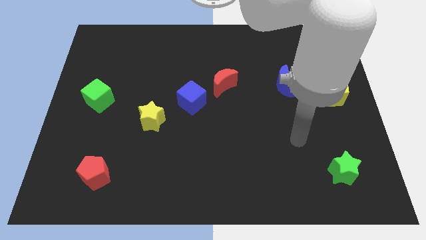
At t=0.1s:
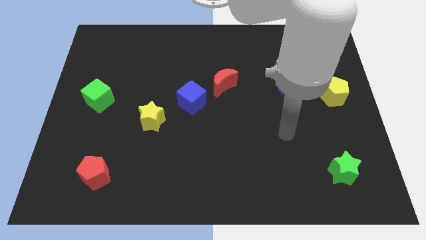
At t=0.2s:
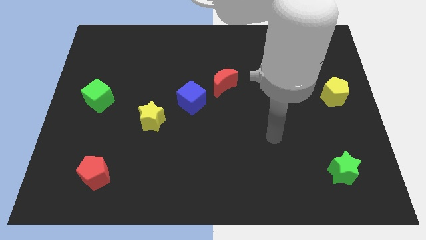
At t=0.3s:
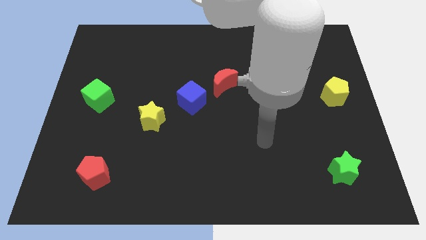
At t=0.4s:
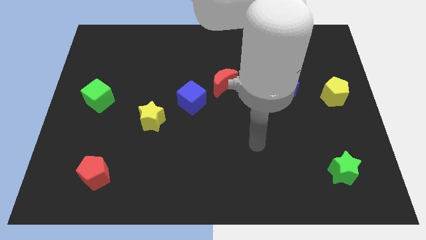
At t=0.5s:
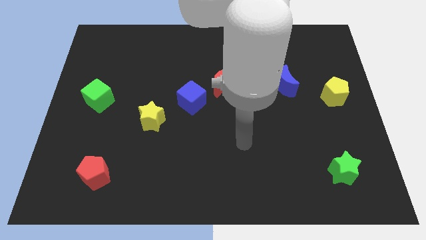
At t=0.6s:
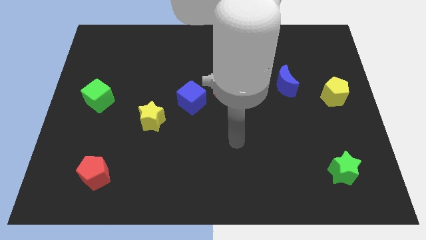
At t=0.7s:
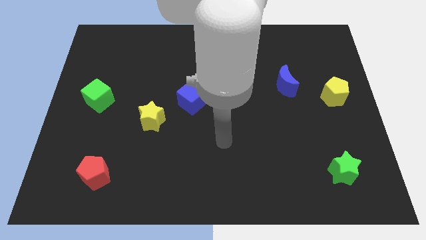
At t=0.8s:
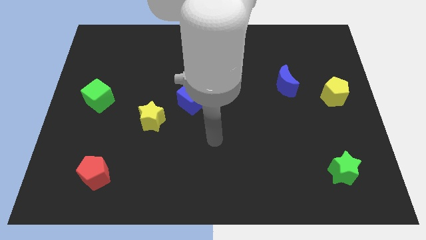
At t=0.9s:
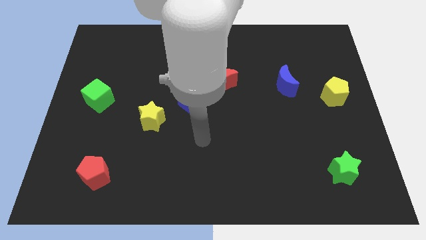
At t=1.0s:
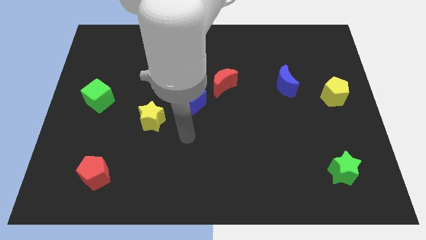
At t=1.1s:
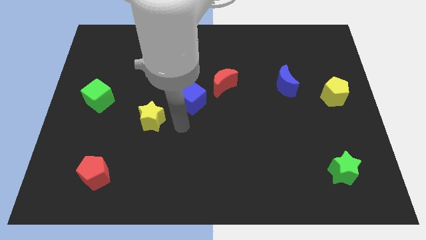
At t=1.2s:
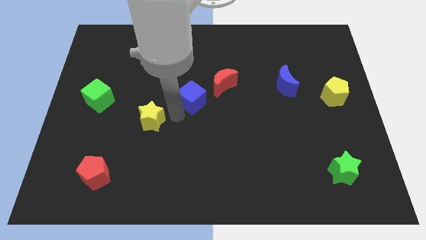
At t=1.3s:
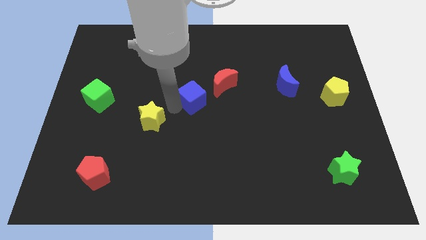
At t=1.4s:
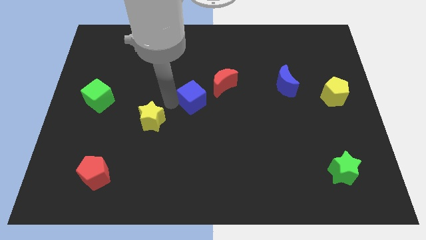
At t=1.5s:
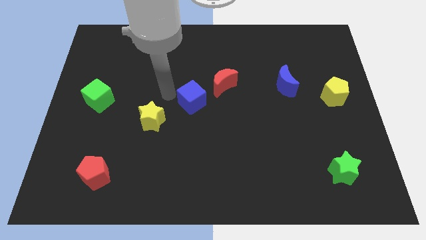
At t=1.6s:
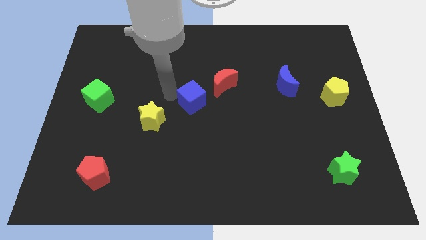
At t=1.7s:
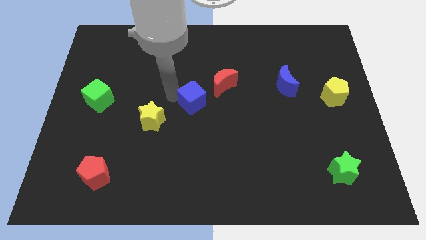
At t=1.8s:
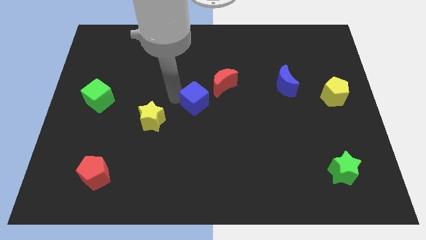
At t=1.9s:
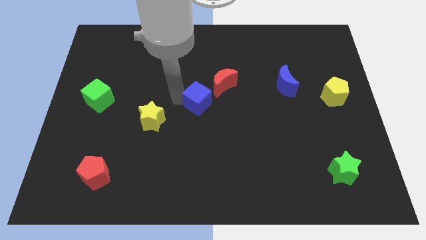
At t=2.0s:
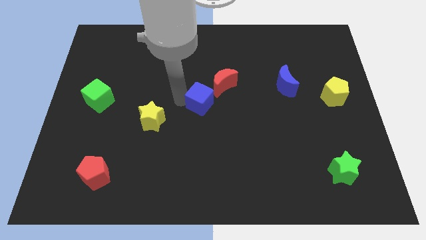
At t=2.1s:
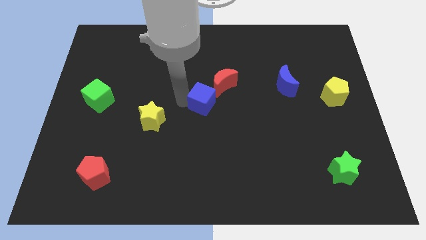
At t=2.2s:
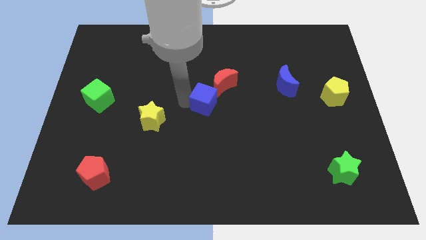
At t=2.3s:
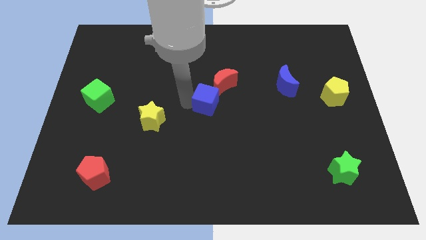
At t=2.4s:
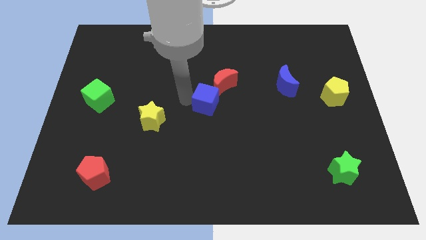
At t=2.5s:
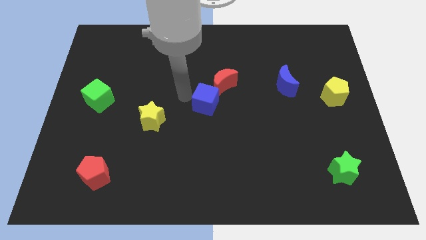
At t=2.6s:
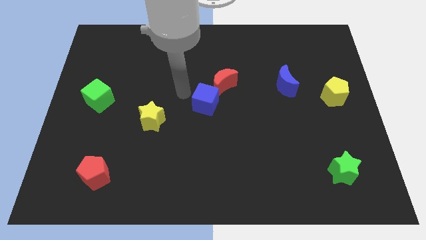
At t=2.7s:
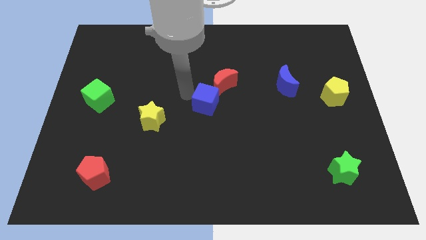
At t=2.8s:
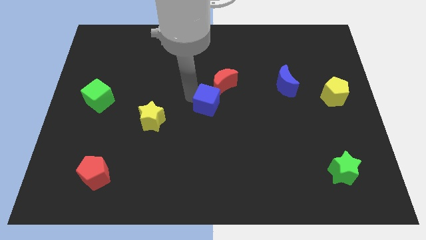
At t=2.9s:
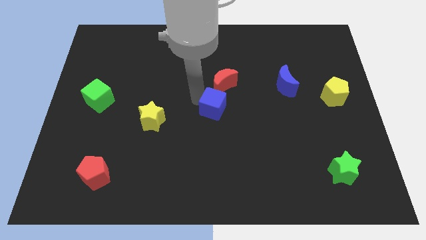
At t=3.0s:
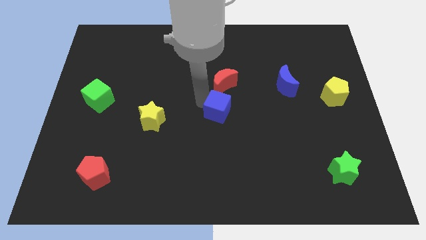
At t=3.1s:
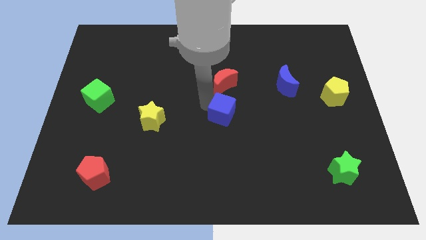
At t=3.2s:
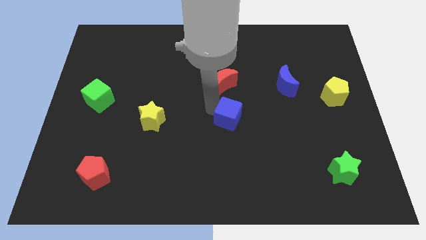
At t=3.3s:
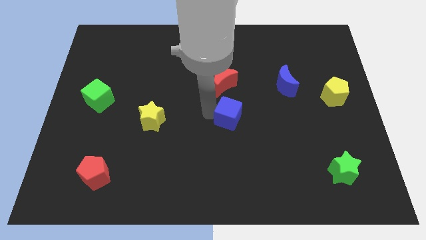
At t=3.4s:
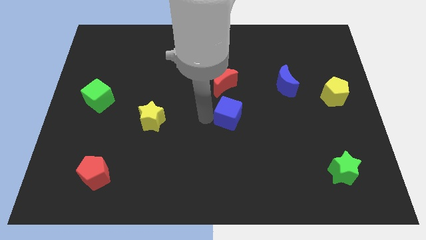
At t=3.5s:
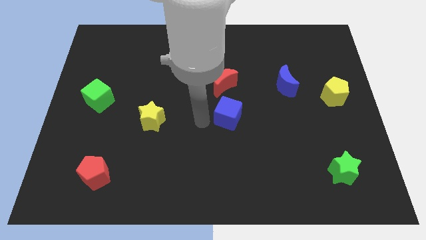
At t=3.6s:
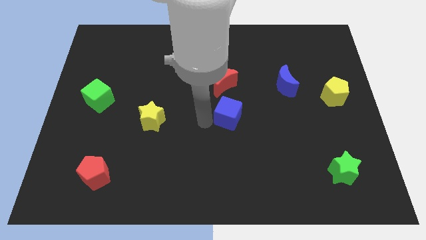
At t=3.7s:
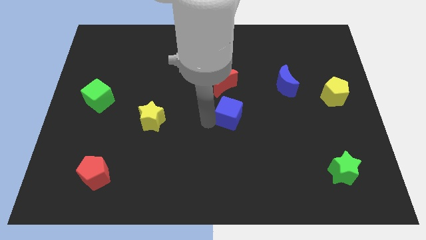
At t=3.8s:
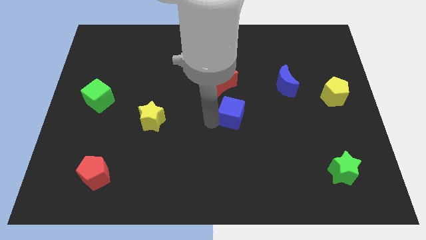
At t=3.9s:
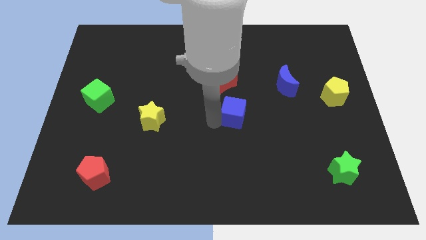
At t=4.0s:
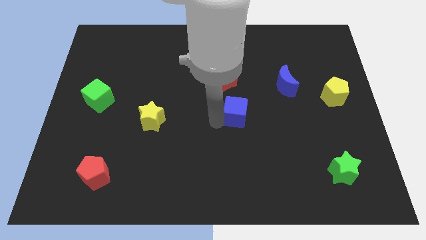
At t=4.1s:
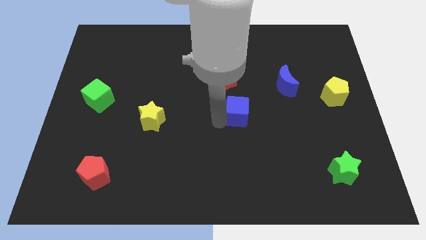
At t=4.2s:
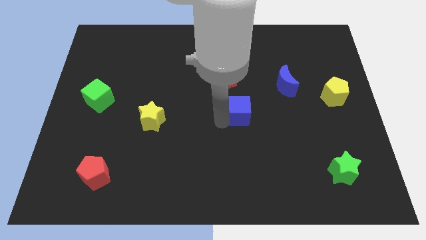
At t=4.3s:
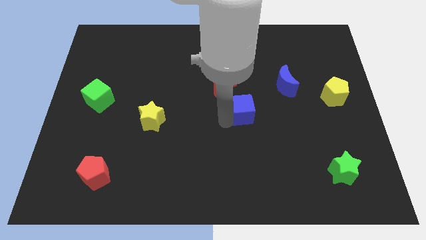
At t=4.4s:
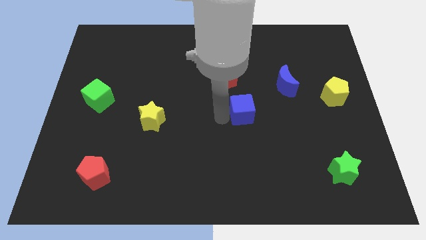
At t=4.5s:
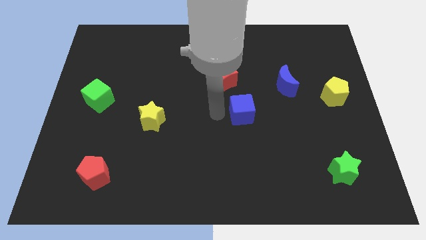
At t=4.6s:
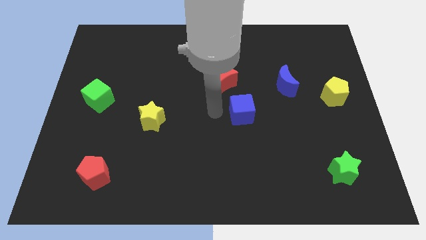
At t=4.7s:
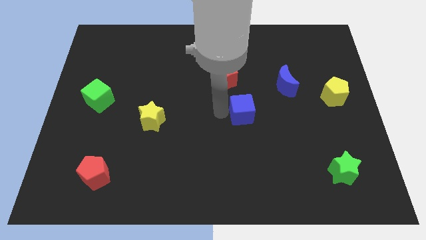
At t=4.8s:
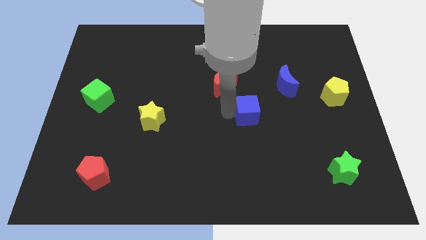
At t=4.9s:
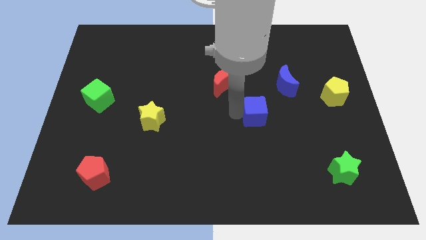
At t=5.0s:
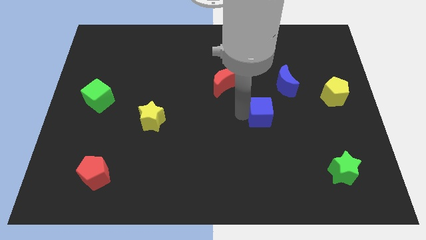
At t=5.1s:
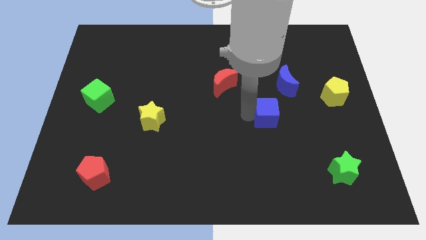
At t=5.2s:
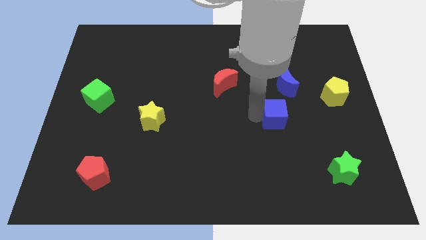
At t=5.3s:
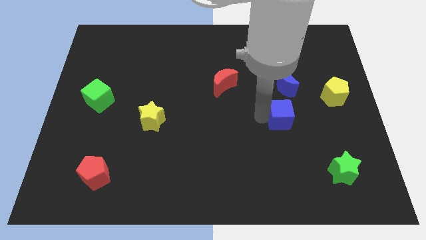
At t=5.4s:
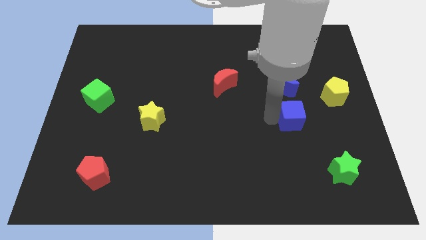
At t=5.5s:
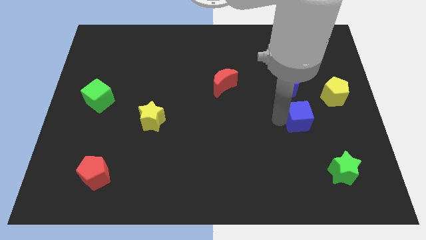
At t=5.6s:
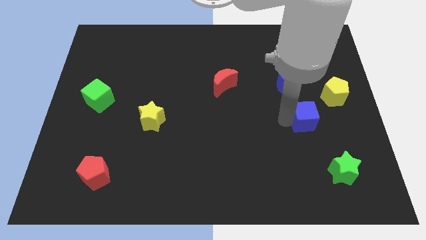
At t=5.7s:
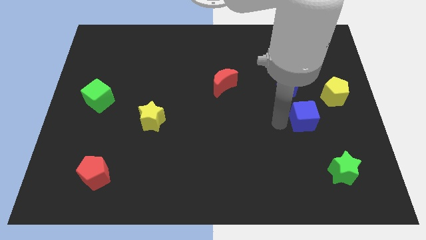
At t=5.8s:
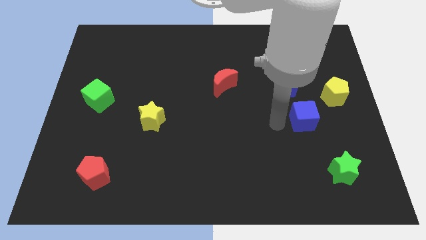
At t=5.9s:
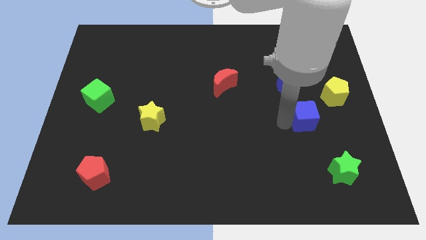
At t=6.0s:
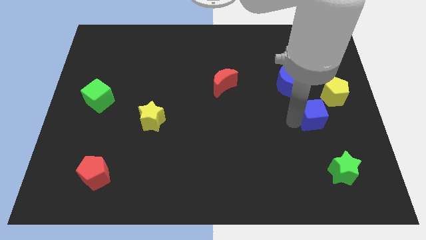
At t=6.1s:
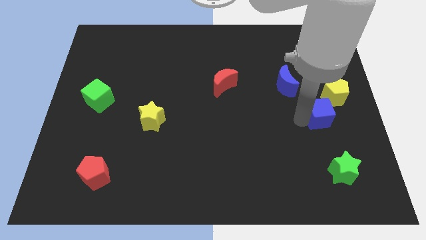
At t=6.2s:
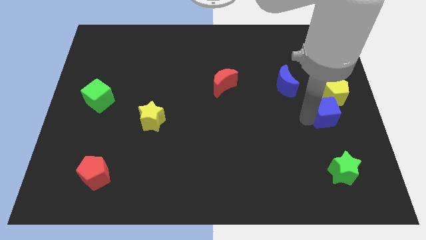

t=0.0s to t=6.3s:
move the blue cube to the right side

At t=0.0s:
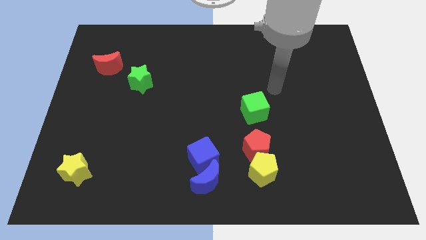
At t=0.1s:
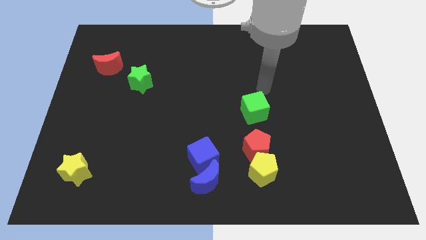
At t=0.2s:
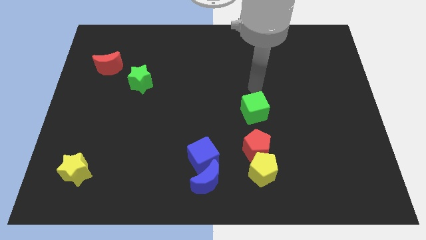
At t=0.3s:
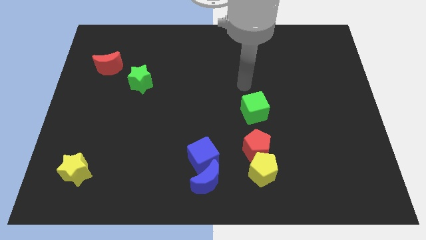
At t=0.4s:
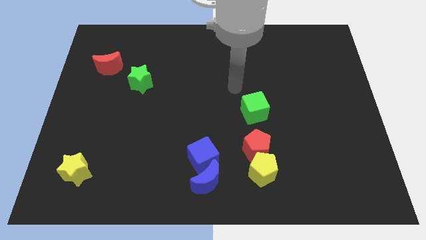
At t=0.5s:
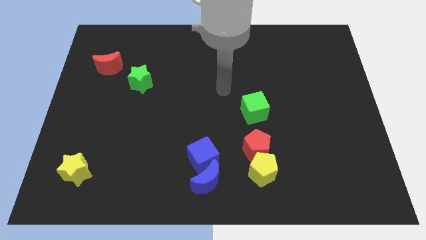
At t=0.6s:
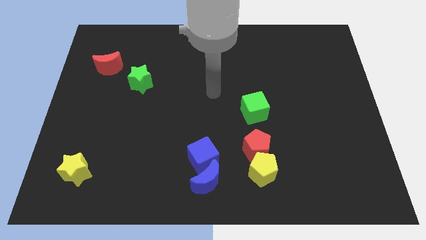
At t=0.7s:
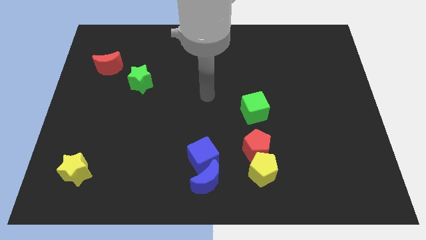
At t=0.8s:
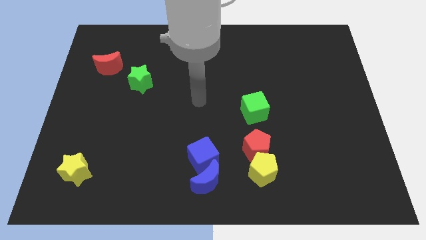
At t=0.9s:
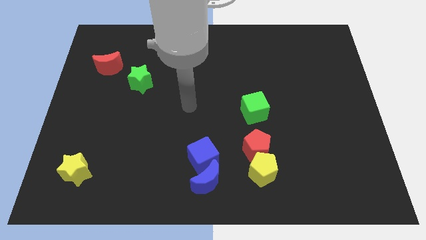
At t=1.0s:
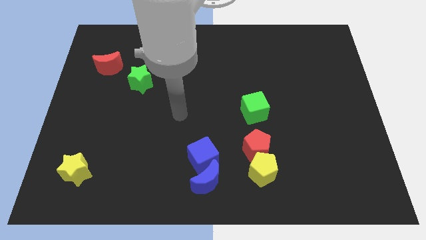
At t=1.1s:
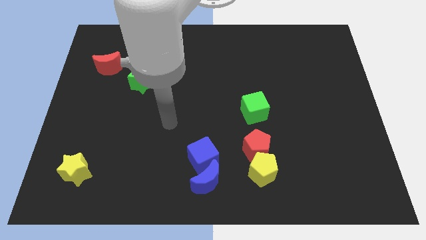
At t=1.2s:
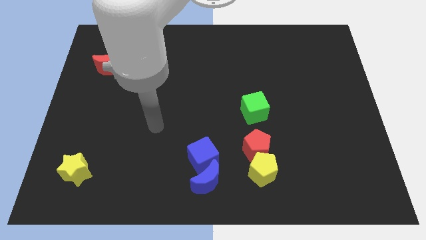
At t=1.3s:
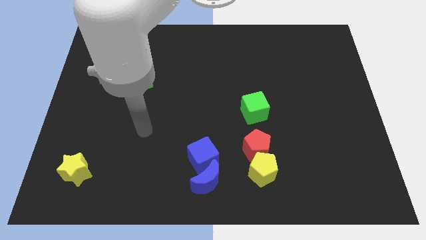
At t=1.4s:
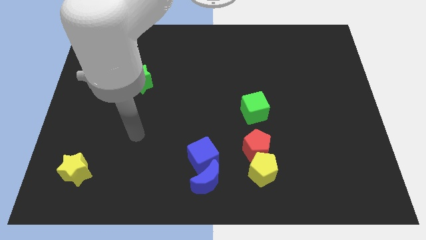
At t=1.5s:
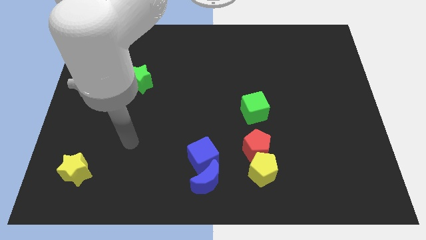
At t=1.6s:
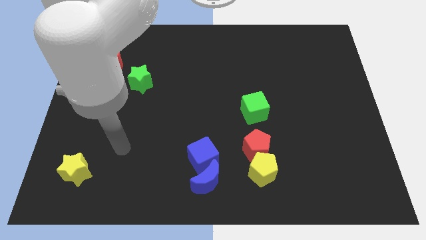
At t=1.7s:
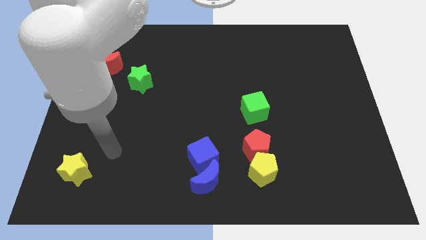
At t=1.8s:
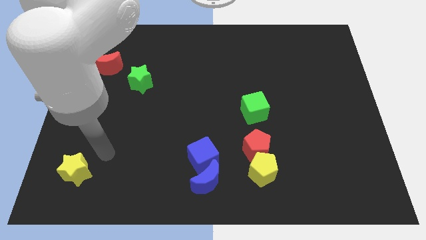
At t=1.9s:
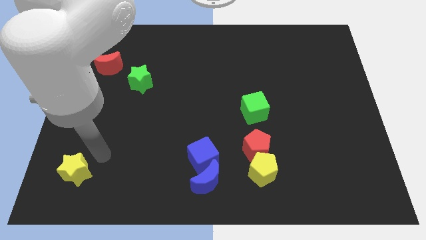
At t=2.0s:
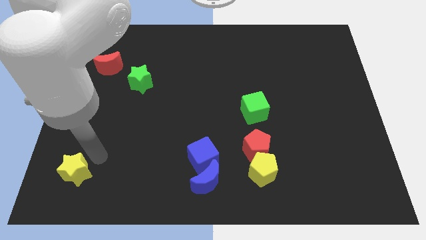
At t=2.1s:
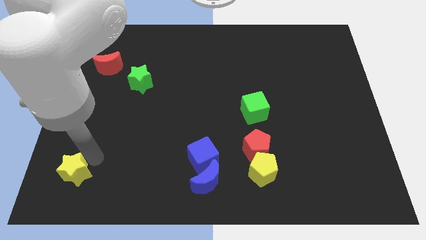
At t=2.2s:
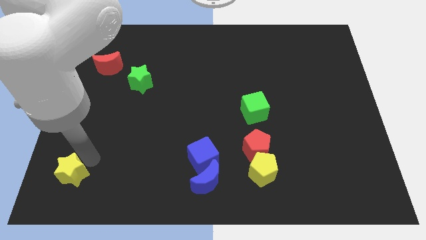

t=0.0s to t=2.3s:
move the yellow star to the bottom left of the board
